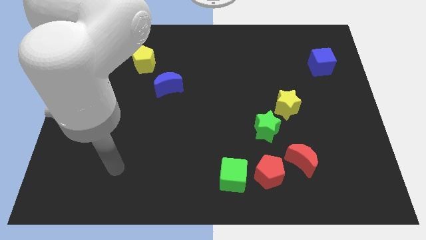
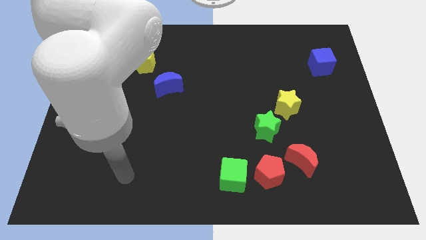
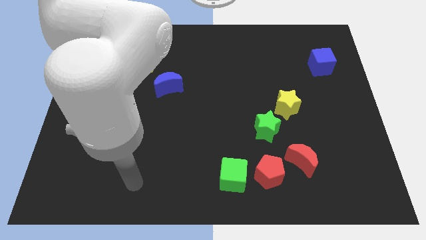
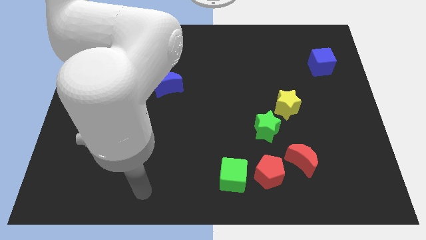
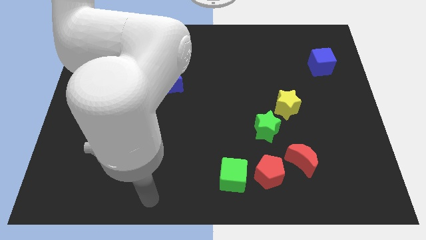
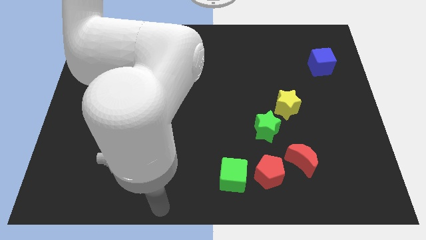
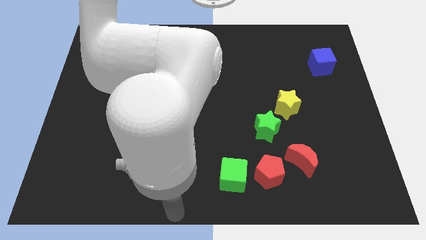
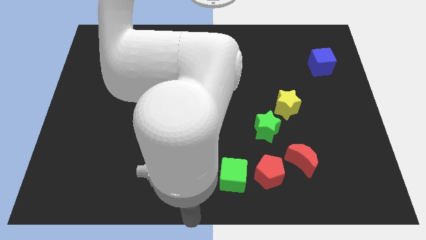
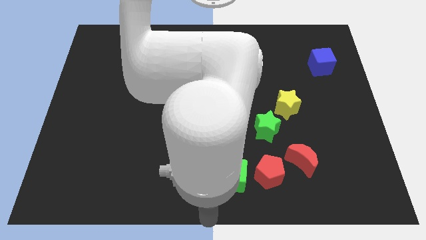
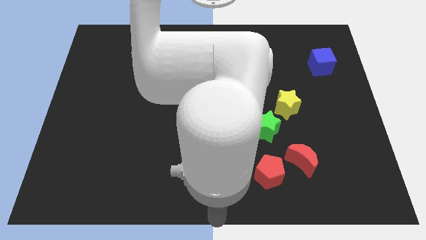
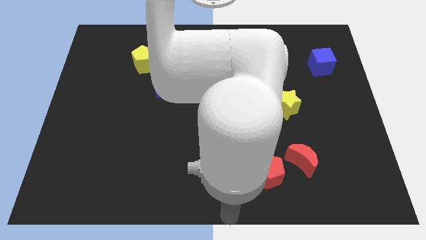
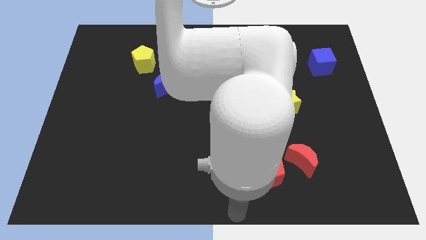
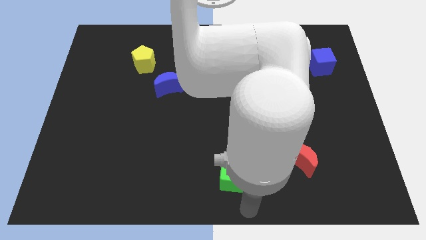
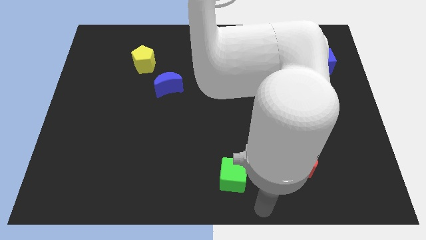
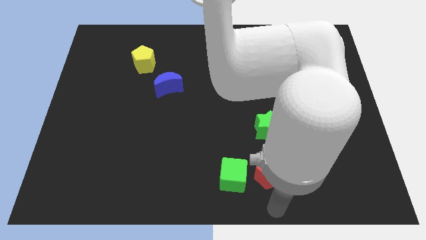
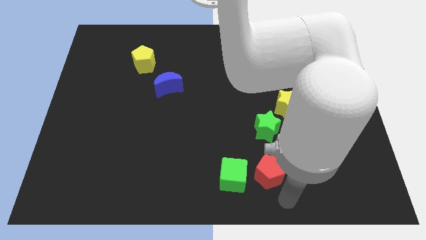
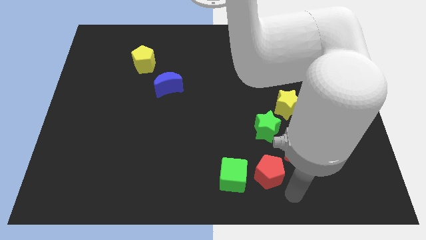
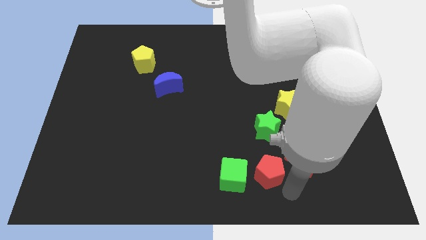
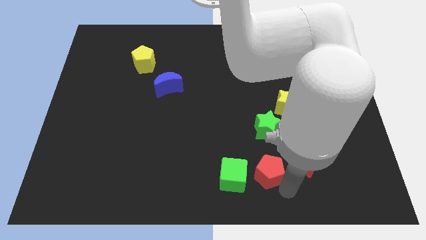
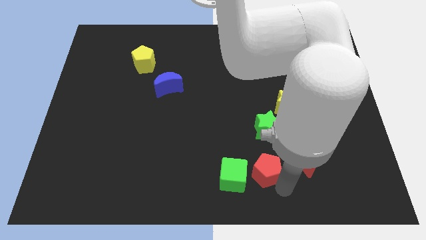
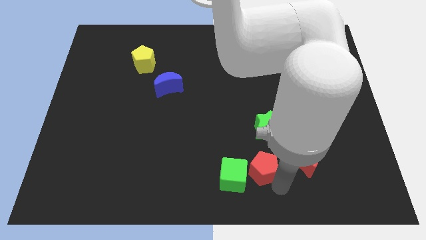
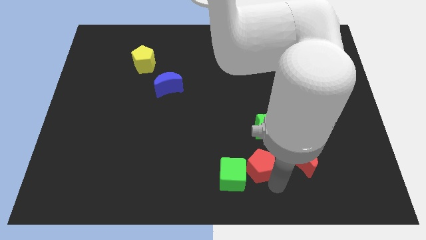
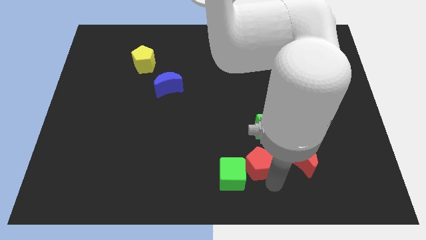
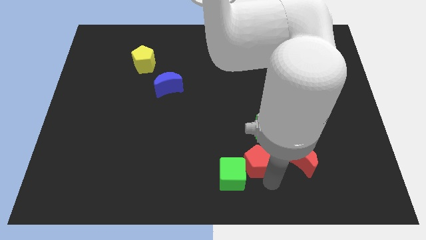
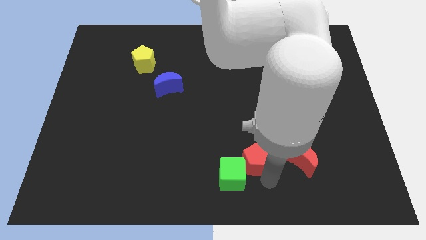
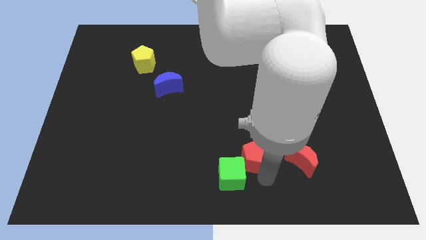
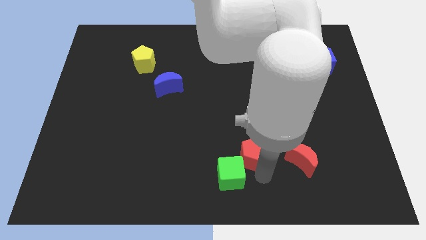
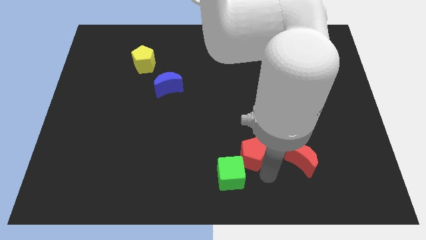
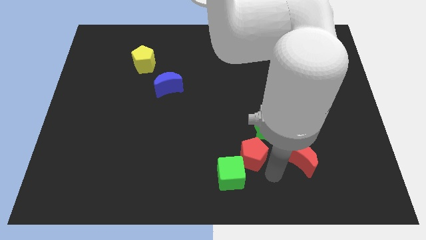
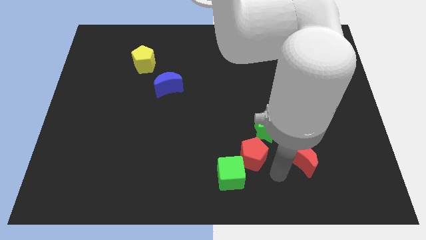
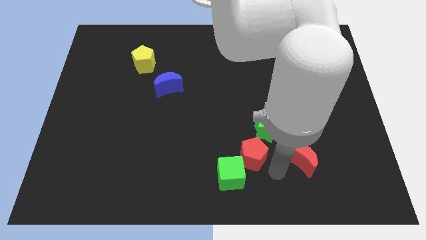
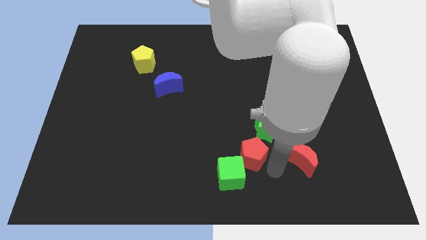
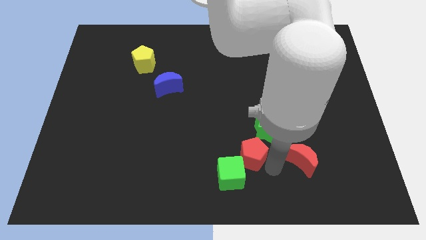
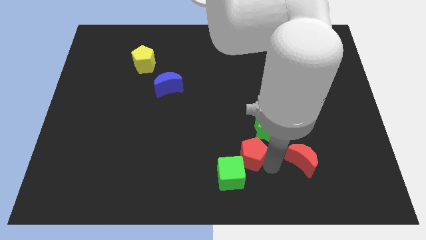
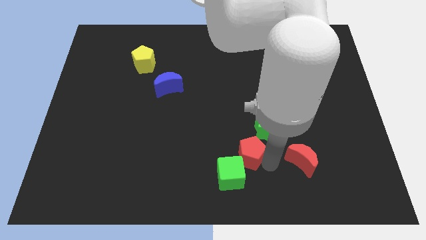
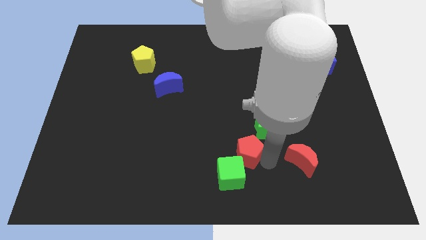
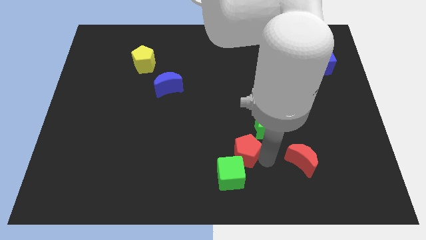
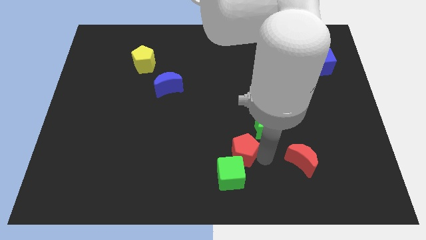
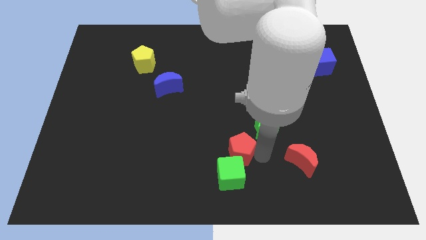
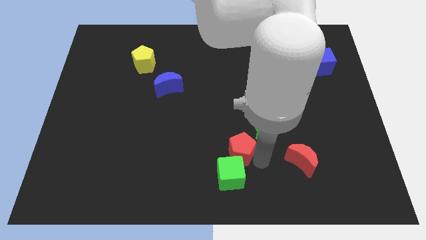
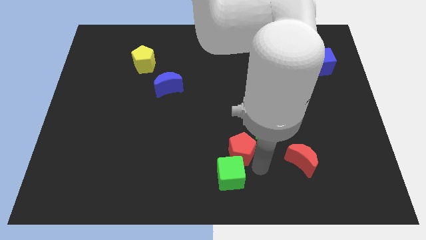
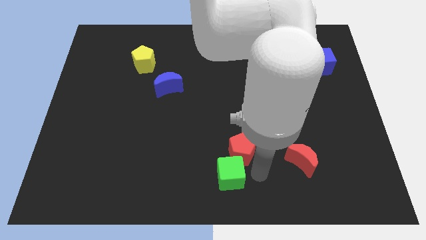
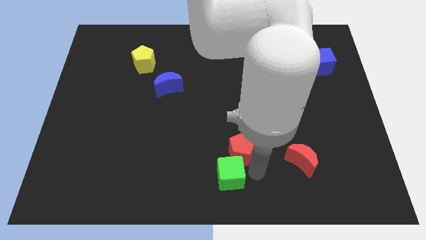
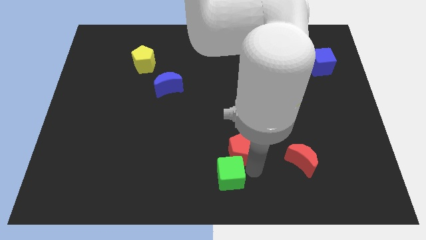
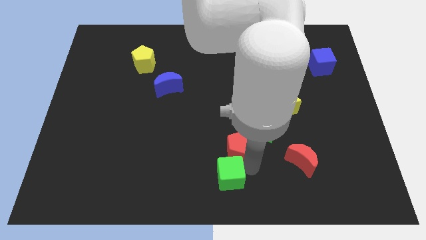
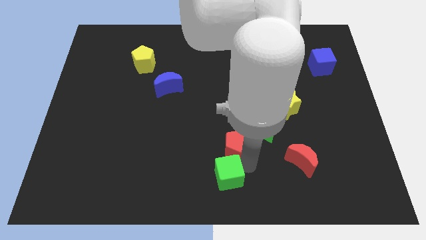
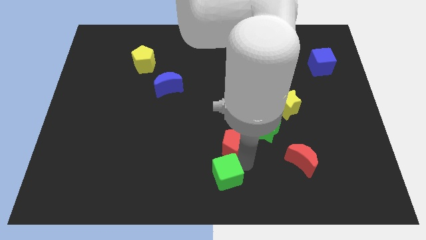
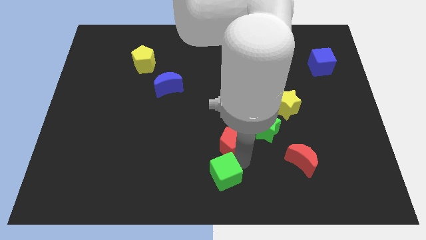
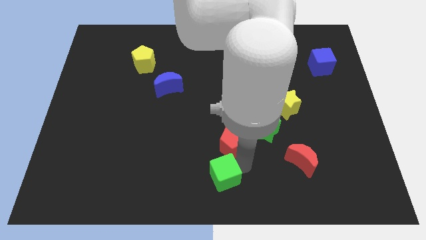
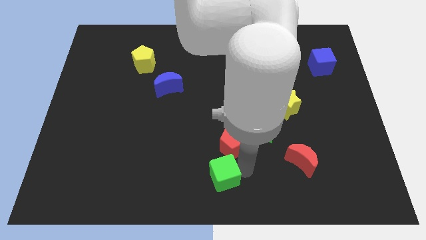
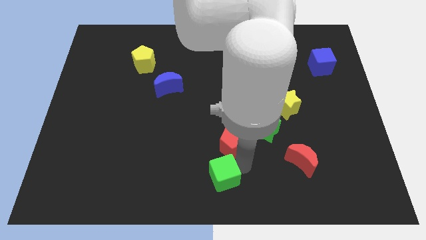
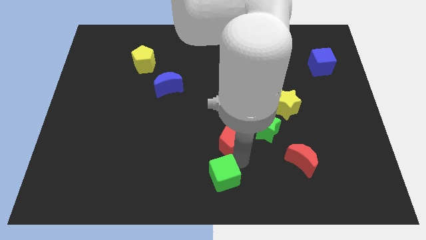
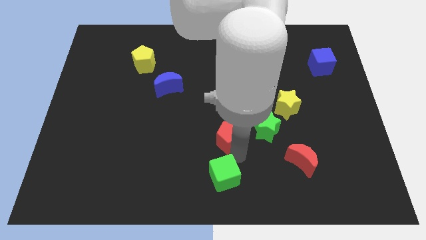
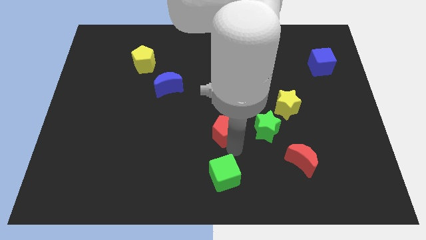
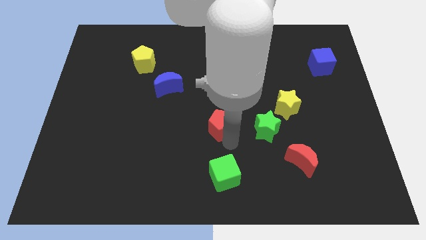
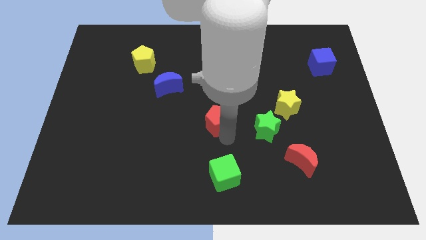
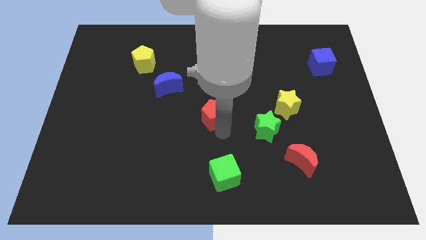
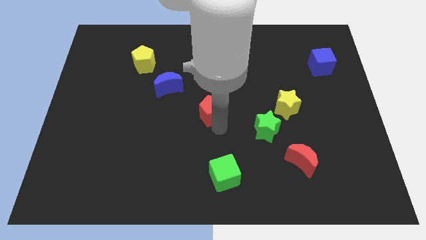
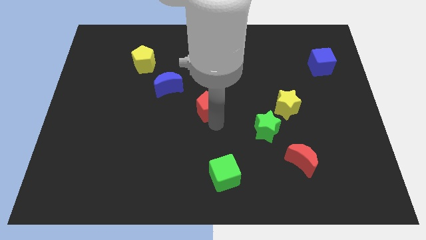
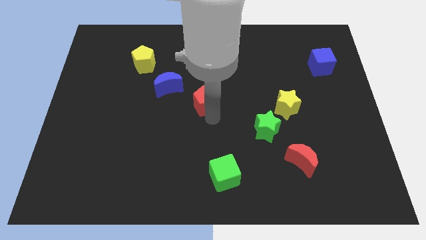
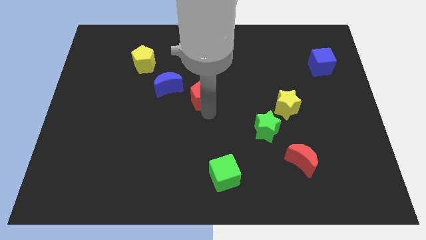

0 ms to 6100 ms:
put the red pentagon just right of the blue moon
